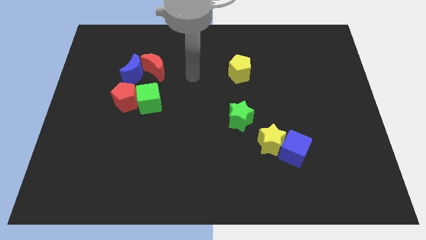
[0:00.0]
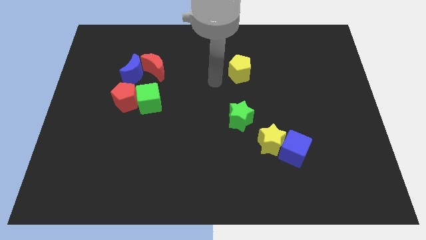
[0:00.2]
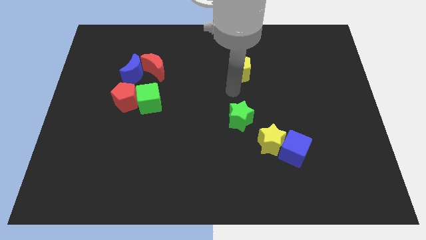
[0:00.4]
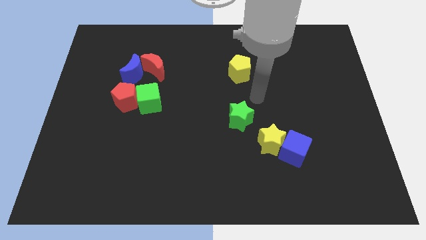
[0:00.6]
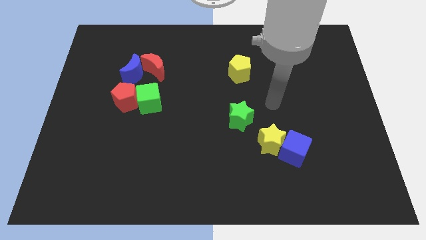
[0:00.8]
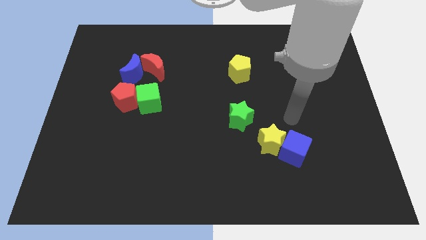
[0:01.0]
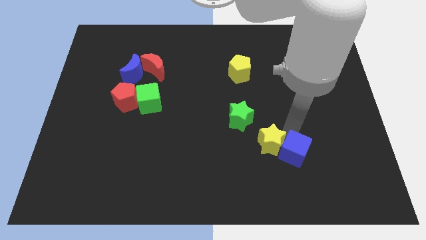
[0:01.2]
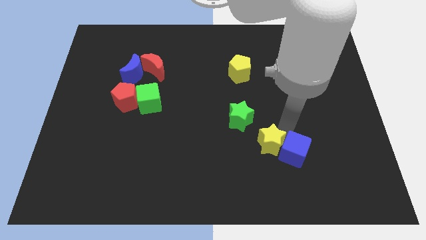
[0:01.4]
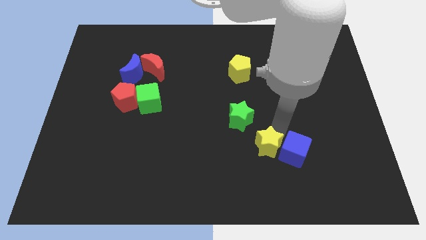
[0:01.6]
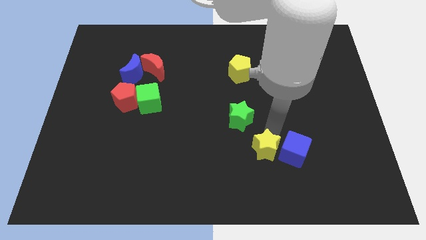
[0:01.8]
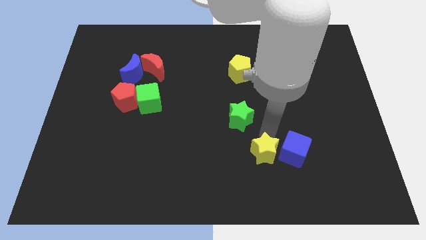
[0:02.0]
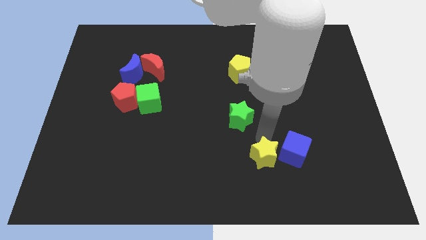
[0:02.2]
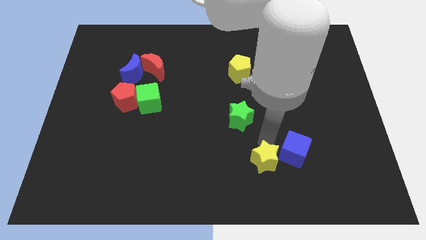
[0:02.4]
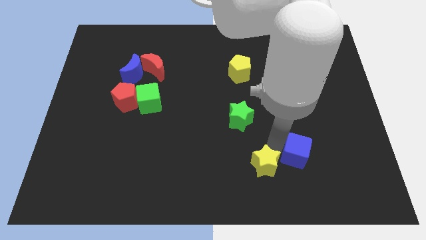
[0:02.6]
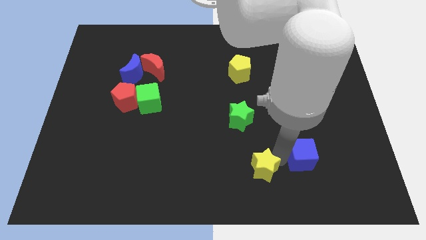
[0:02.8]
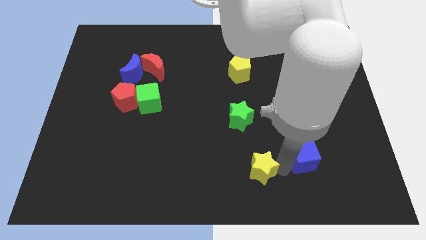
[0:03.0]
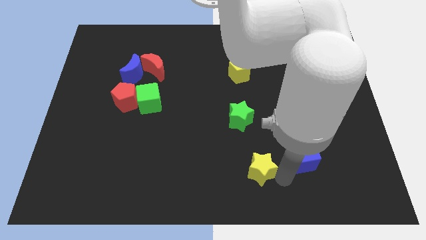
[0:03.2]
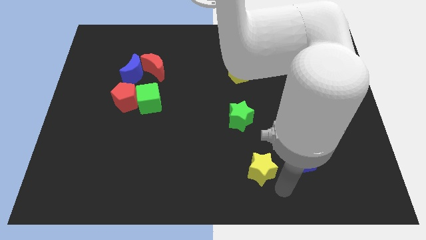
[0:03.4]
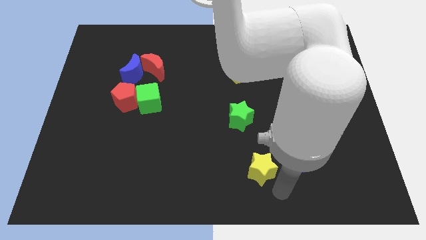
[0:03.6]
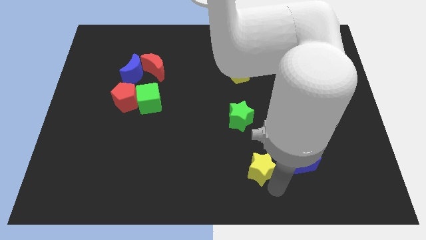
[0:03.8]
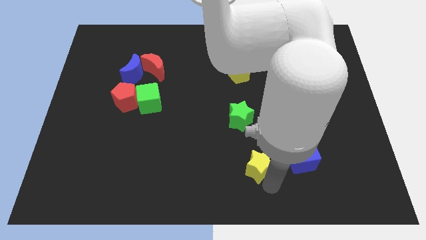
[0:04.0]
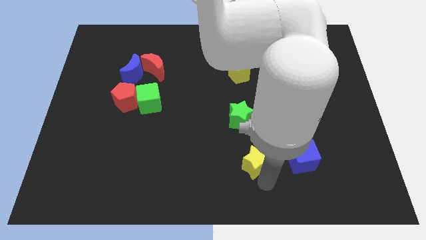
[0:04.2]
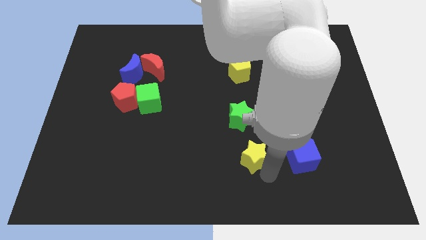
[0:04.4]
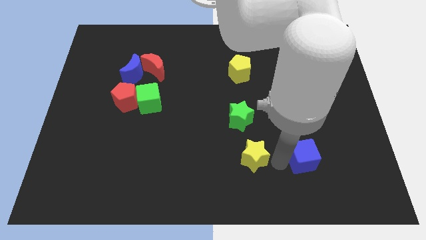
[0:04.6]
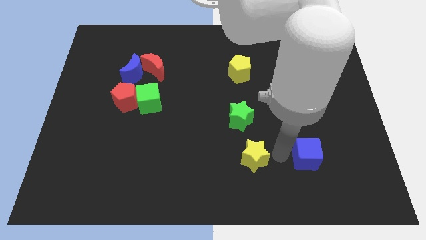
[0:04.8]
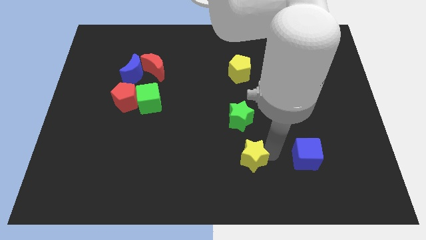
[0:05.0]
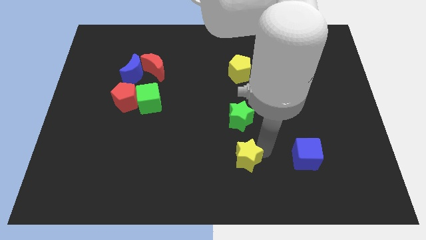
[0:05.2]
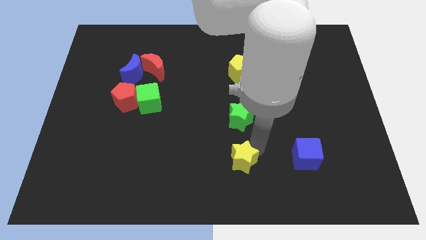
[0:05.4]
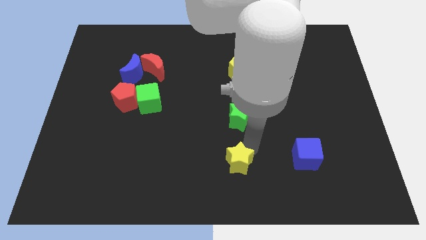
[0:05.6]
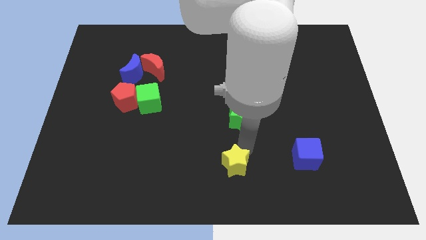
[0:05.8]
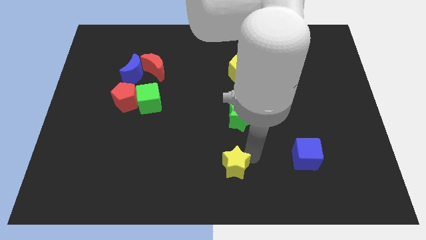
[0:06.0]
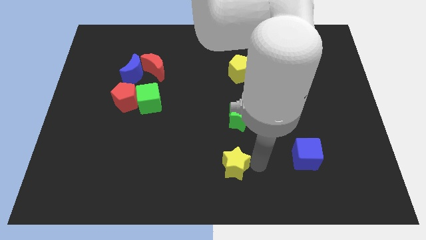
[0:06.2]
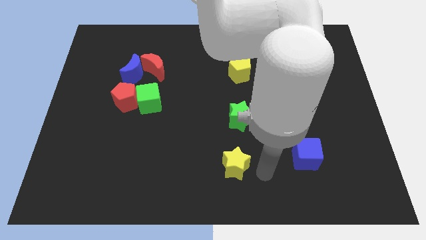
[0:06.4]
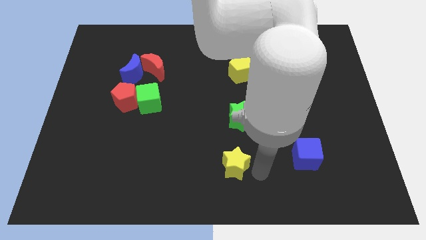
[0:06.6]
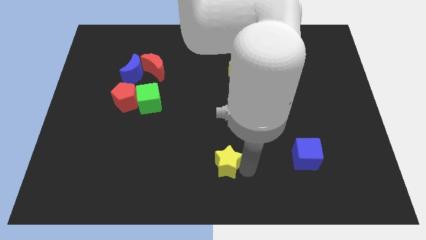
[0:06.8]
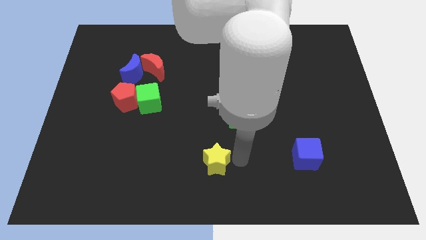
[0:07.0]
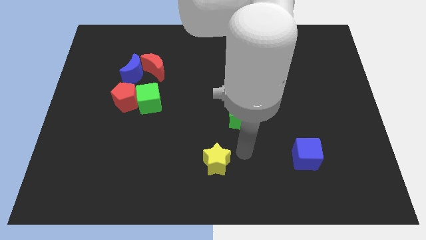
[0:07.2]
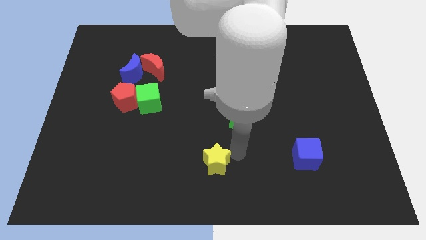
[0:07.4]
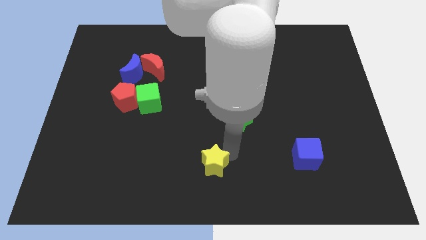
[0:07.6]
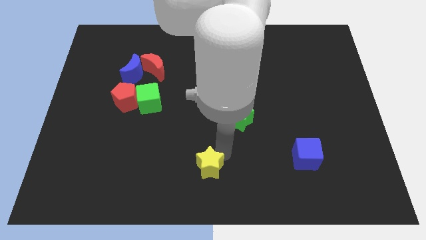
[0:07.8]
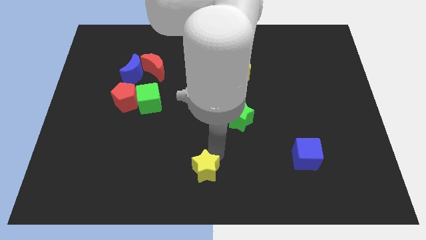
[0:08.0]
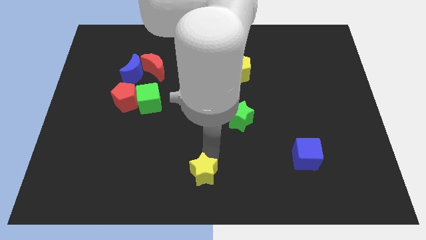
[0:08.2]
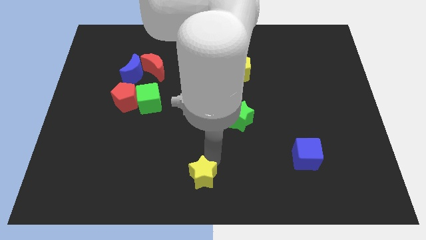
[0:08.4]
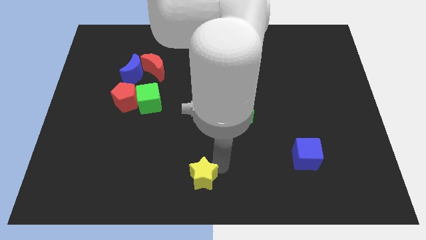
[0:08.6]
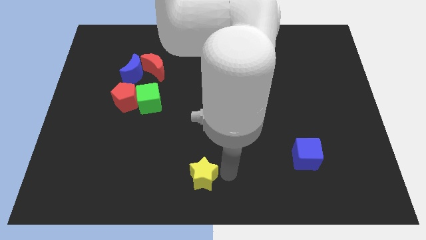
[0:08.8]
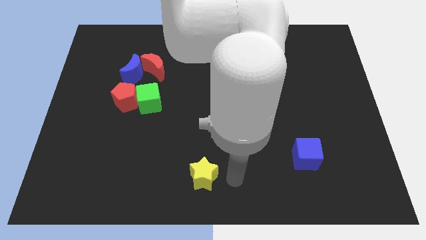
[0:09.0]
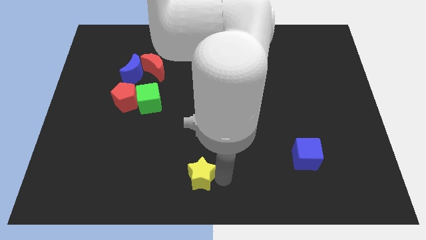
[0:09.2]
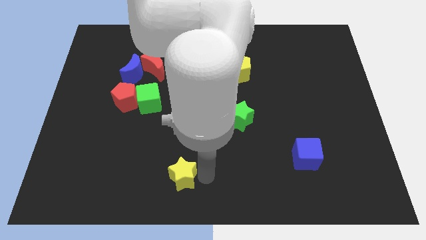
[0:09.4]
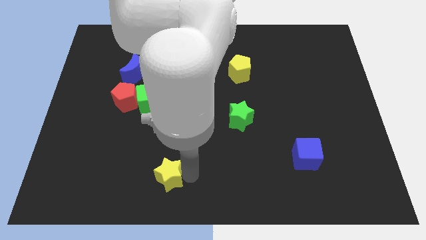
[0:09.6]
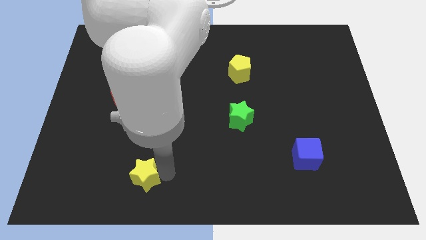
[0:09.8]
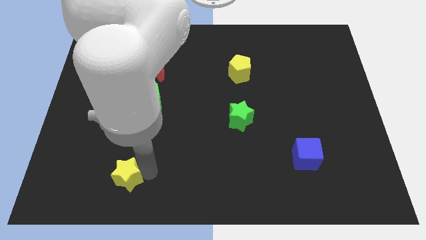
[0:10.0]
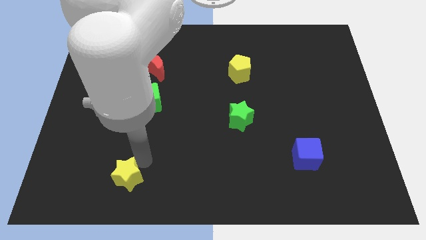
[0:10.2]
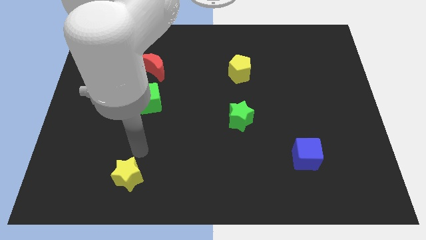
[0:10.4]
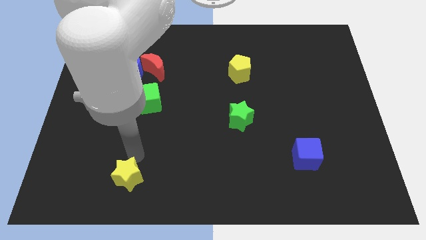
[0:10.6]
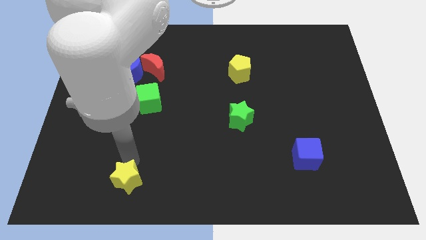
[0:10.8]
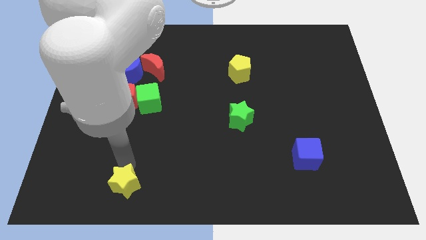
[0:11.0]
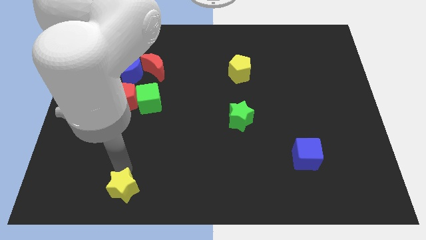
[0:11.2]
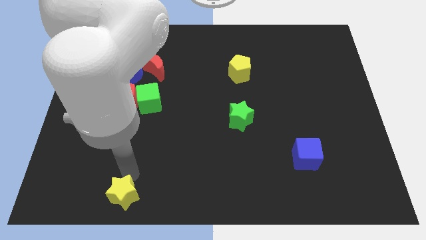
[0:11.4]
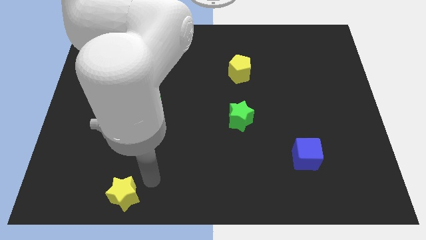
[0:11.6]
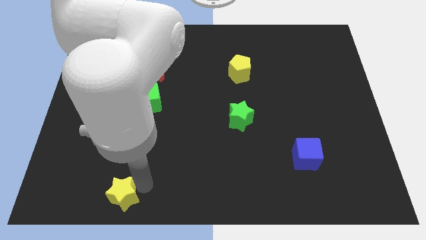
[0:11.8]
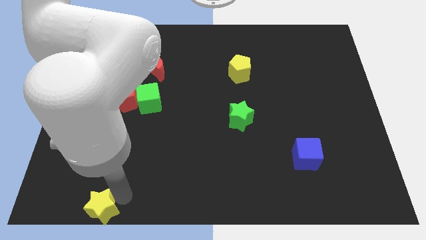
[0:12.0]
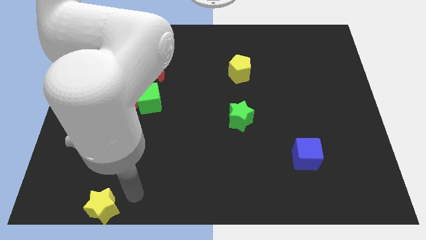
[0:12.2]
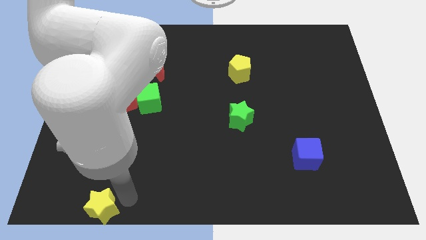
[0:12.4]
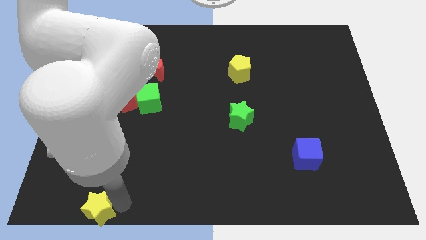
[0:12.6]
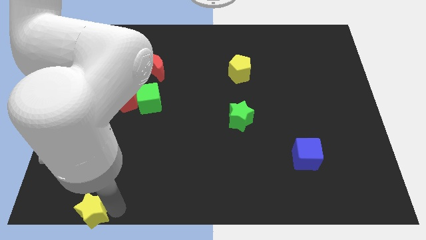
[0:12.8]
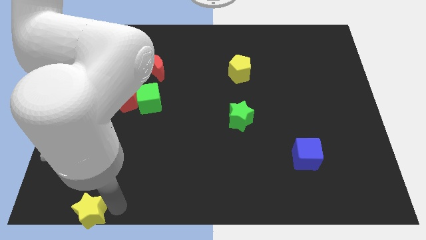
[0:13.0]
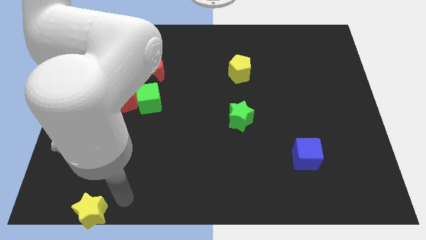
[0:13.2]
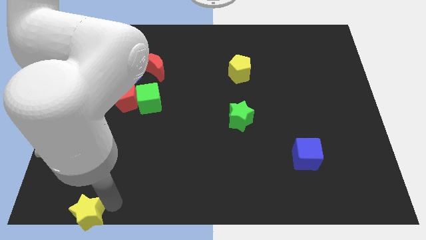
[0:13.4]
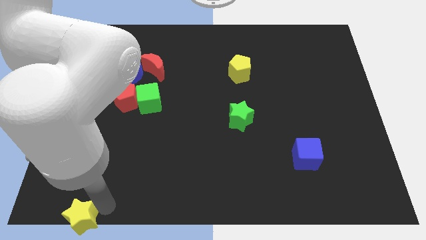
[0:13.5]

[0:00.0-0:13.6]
push the yellow star to the lower left corner
